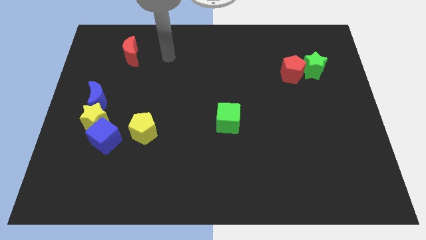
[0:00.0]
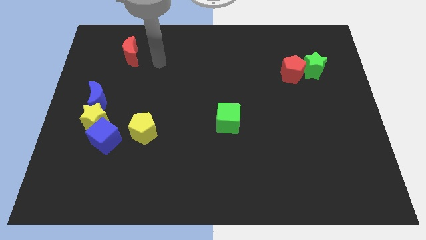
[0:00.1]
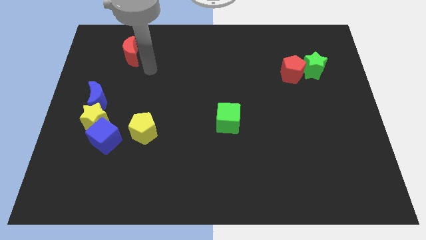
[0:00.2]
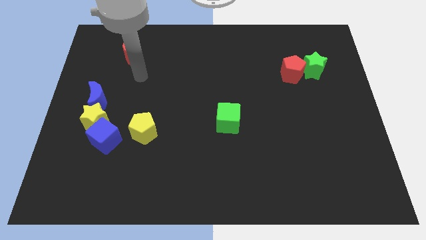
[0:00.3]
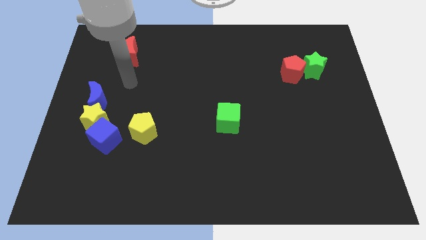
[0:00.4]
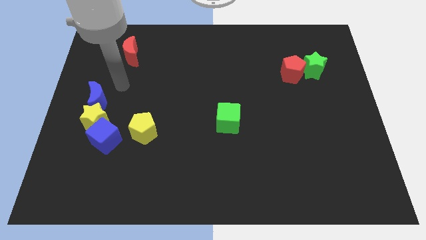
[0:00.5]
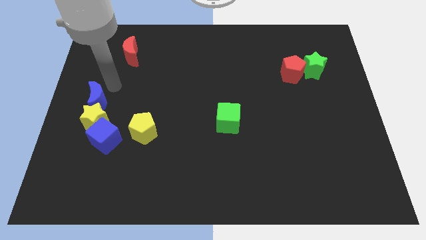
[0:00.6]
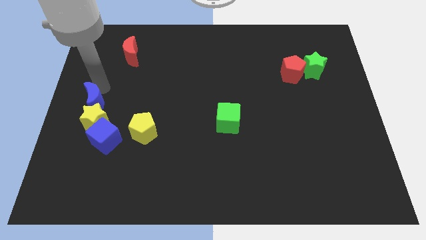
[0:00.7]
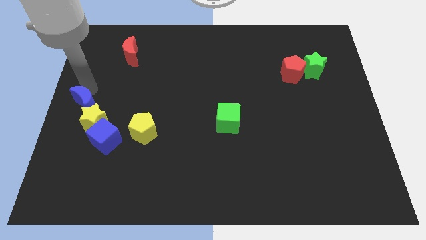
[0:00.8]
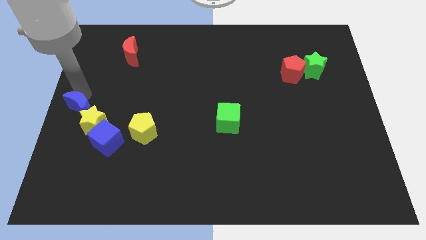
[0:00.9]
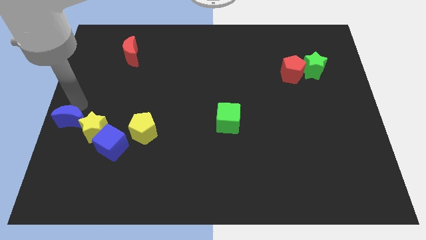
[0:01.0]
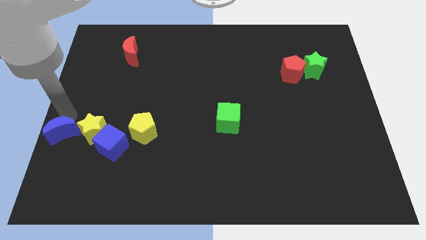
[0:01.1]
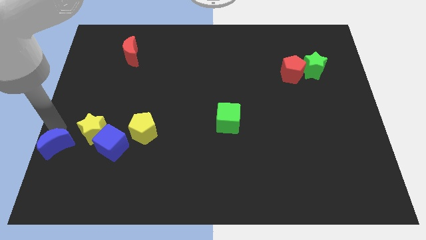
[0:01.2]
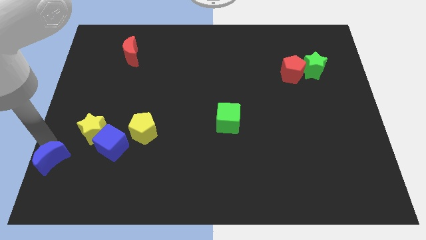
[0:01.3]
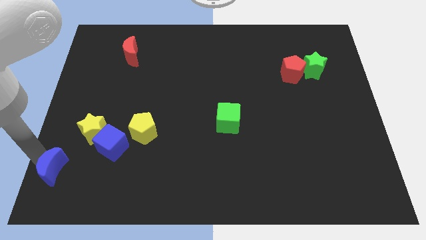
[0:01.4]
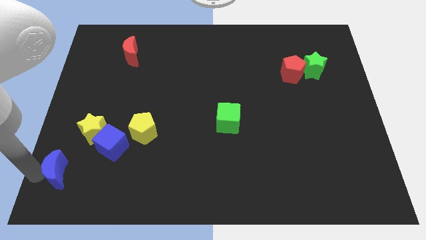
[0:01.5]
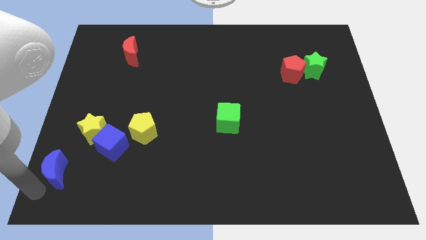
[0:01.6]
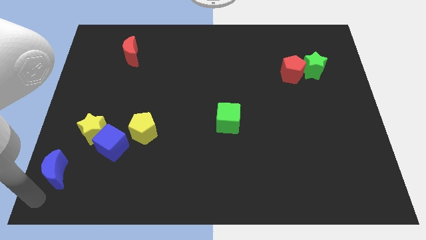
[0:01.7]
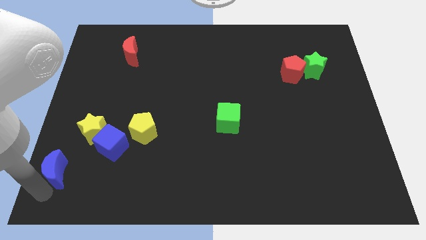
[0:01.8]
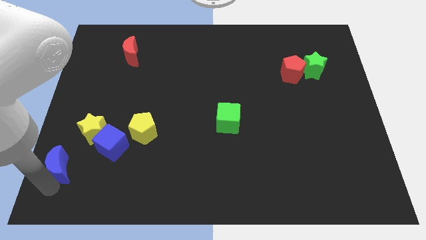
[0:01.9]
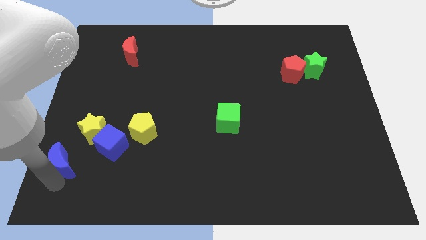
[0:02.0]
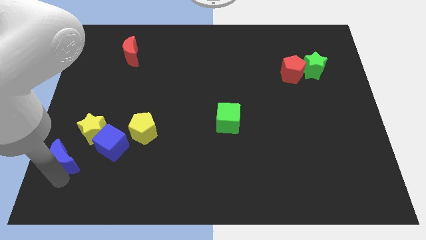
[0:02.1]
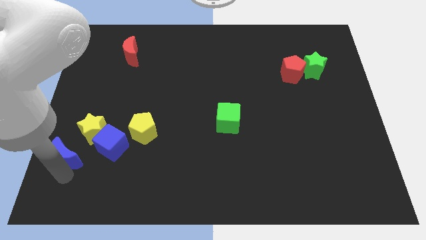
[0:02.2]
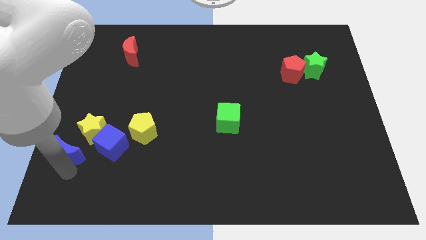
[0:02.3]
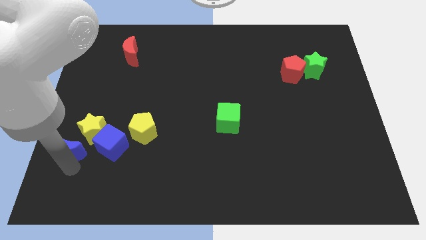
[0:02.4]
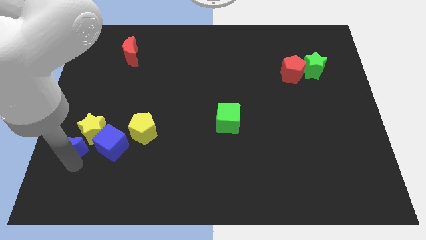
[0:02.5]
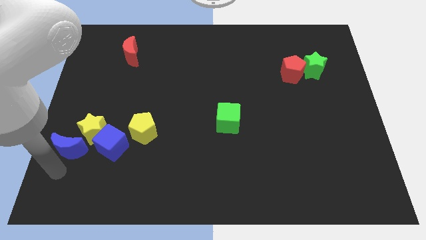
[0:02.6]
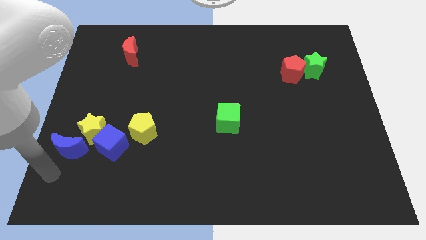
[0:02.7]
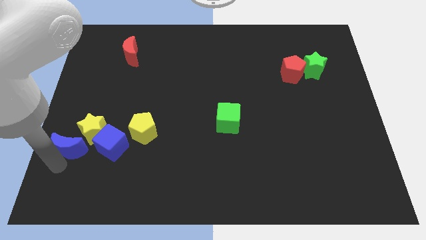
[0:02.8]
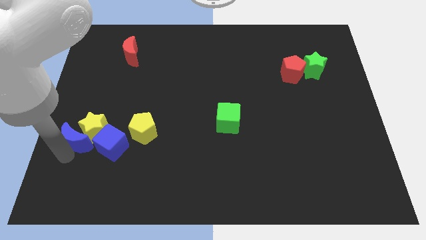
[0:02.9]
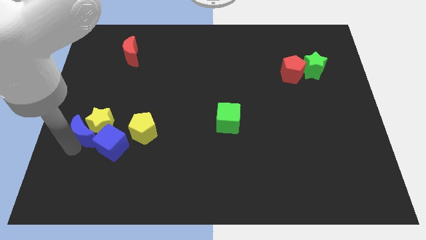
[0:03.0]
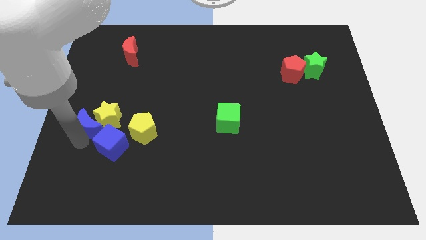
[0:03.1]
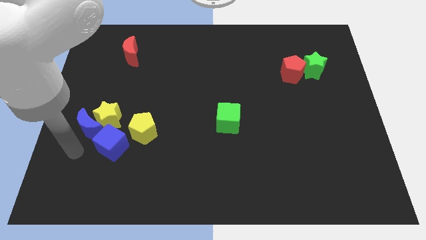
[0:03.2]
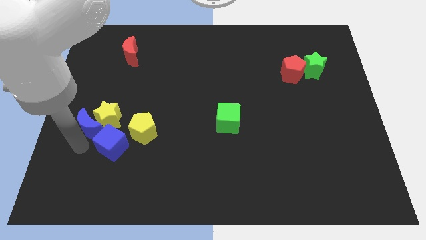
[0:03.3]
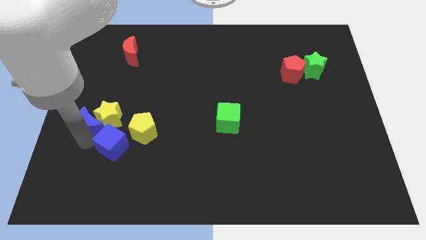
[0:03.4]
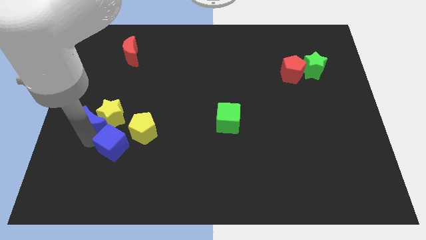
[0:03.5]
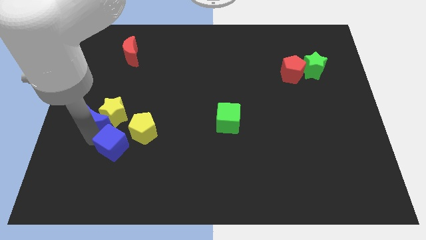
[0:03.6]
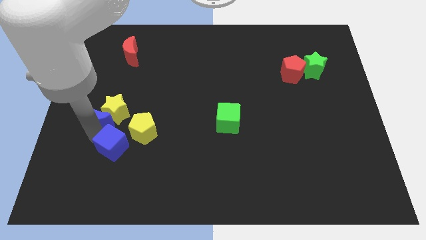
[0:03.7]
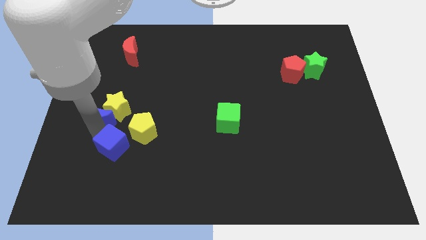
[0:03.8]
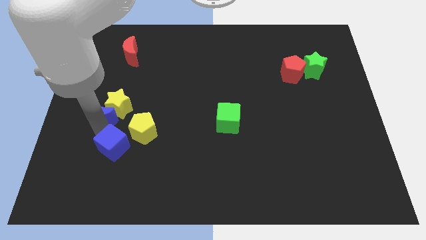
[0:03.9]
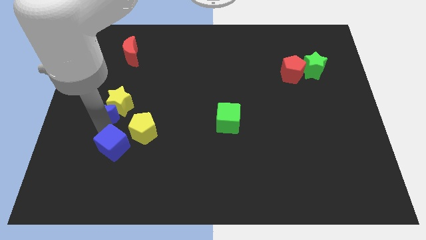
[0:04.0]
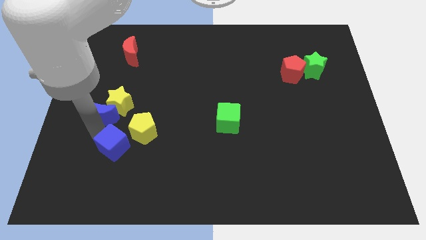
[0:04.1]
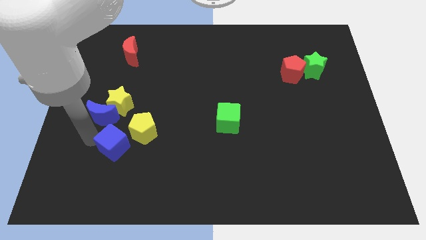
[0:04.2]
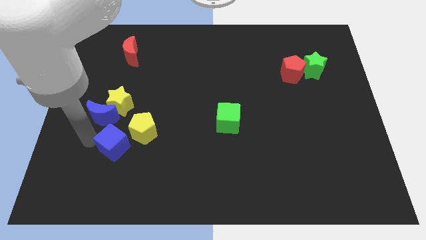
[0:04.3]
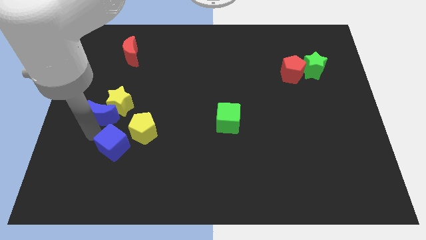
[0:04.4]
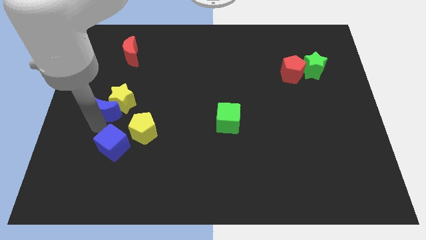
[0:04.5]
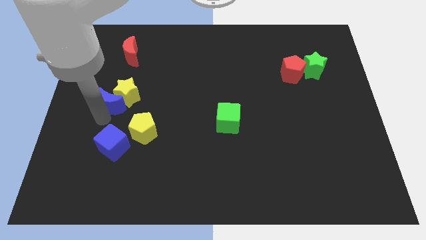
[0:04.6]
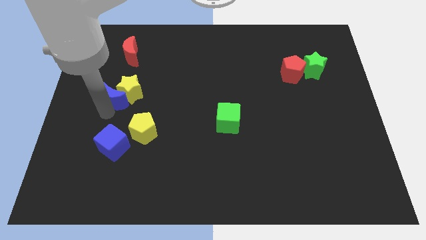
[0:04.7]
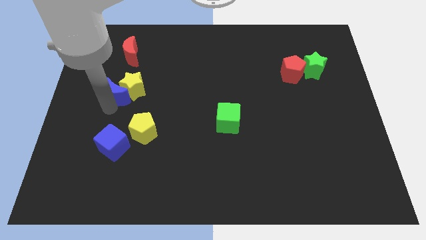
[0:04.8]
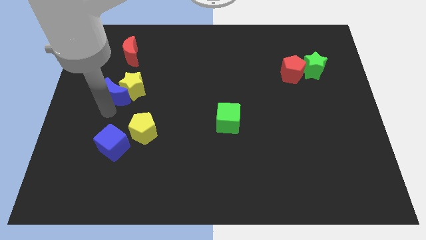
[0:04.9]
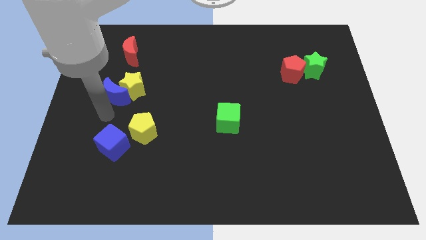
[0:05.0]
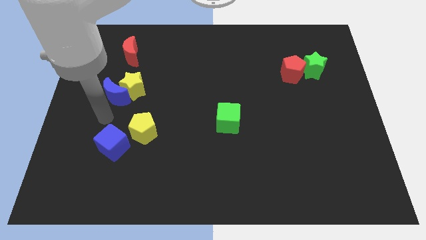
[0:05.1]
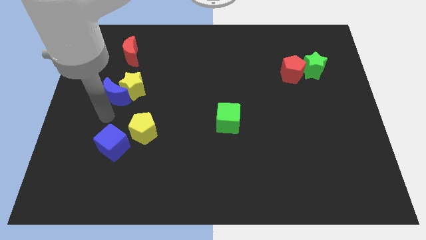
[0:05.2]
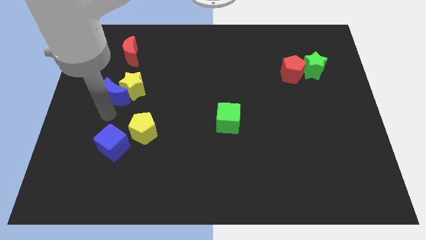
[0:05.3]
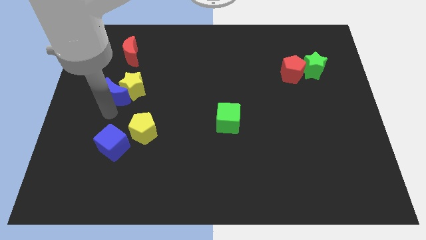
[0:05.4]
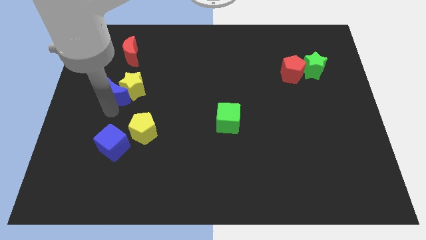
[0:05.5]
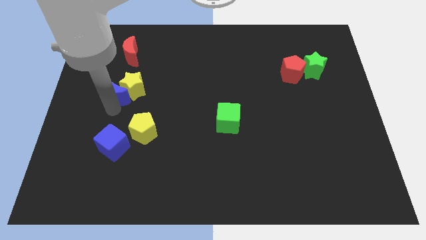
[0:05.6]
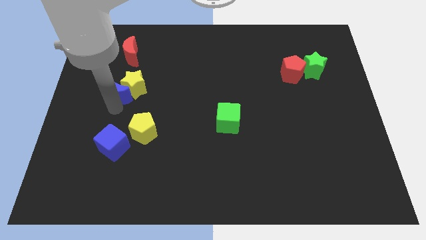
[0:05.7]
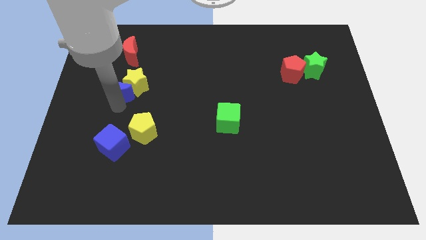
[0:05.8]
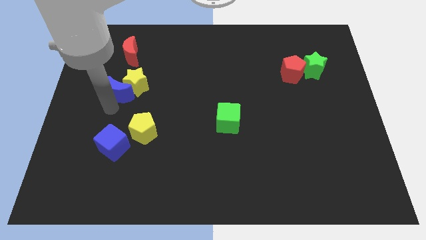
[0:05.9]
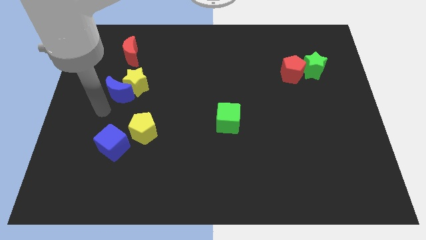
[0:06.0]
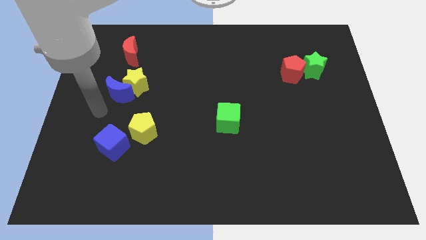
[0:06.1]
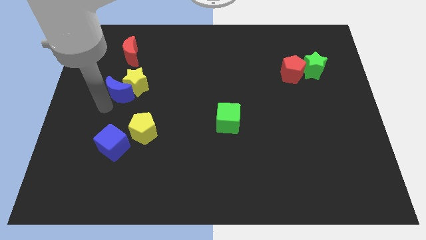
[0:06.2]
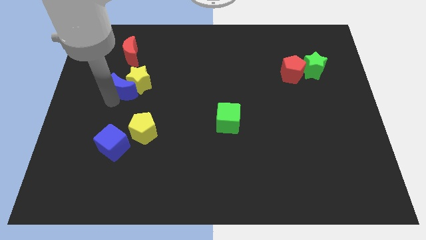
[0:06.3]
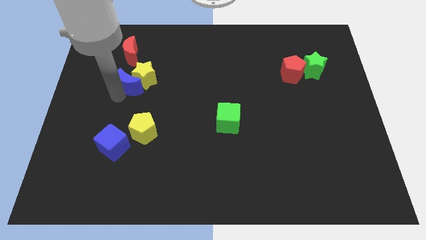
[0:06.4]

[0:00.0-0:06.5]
slide the blue moon somewhat diagonally upwards and right

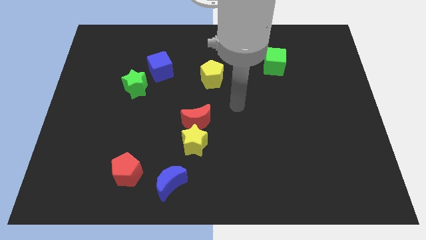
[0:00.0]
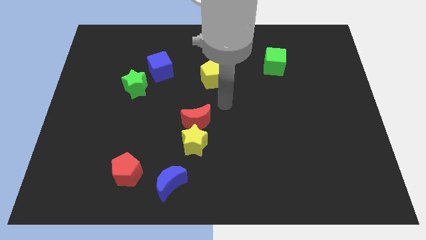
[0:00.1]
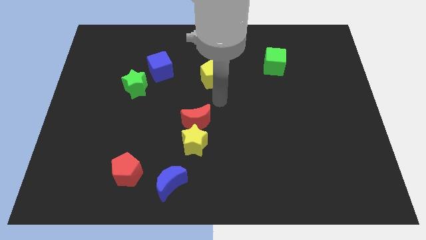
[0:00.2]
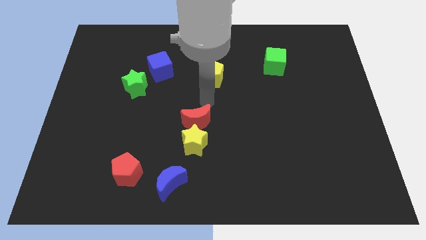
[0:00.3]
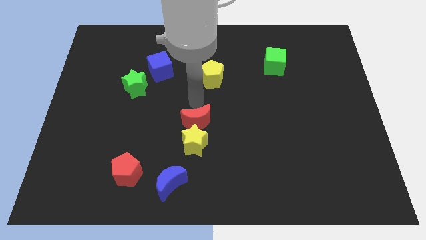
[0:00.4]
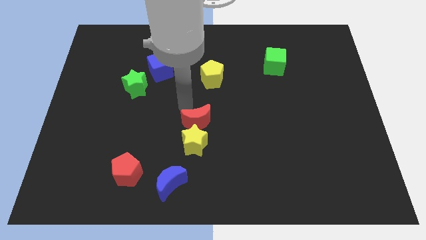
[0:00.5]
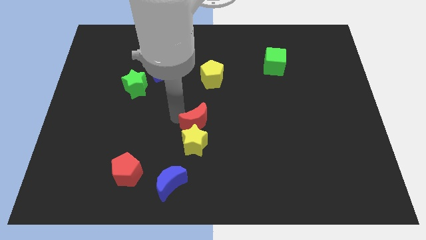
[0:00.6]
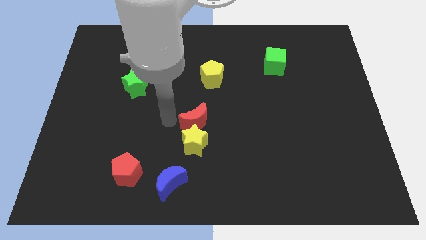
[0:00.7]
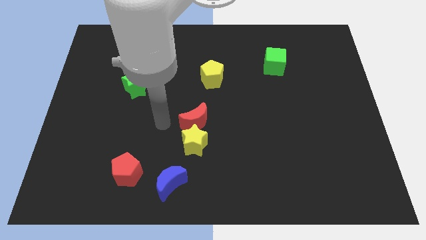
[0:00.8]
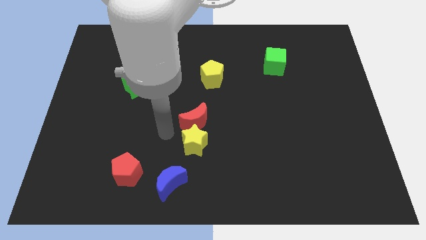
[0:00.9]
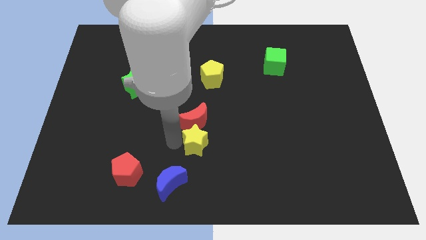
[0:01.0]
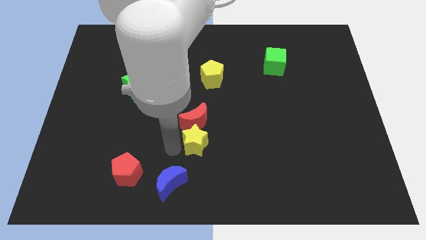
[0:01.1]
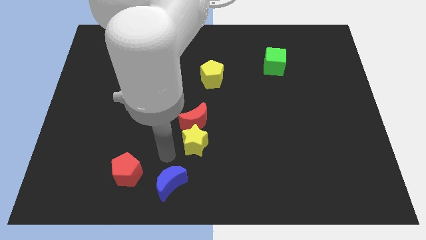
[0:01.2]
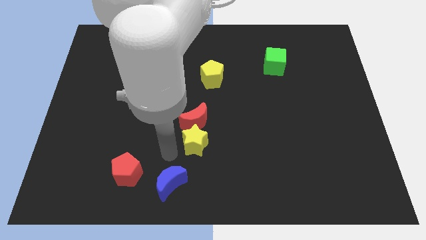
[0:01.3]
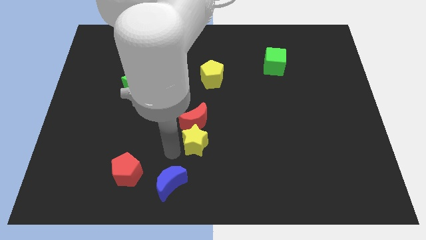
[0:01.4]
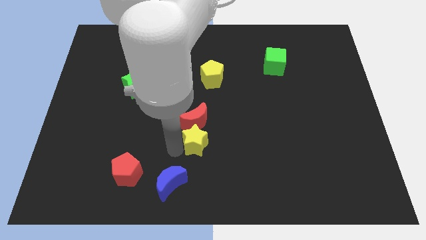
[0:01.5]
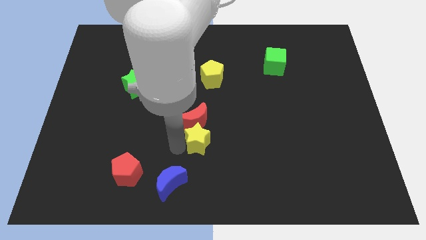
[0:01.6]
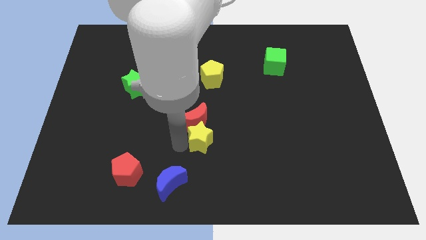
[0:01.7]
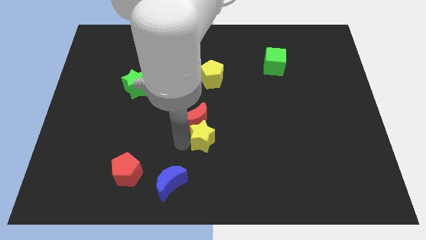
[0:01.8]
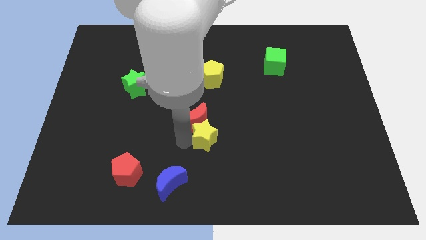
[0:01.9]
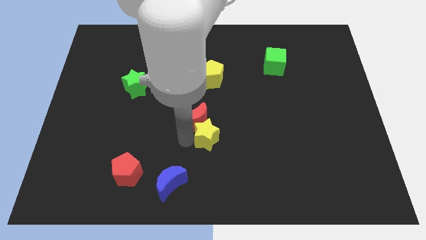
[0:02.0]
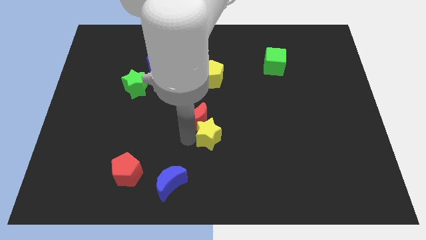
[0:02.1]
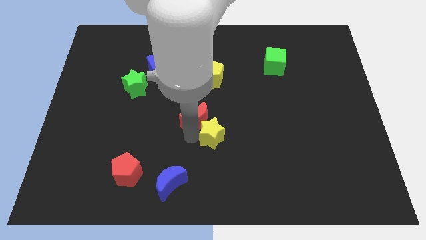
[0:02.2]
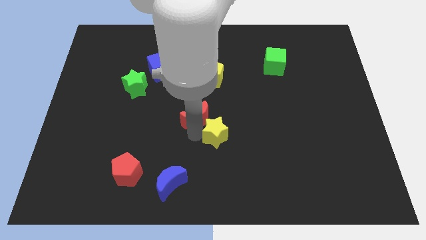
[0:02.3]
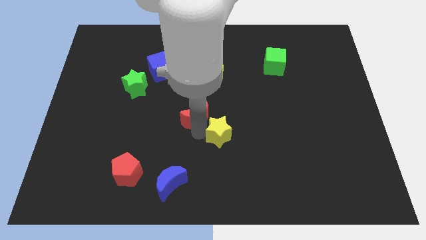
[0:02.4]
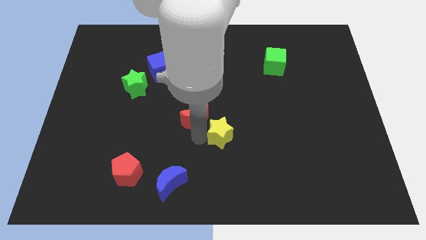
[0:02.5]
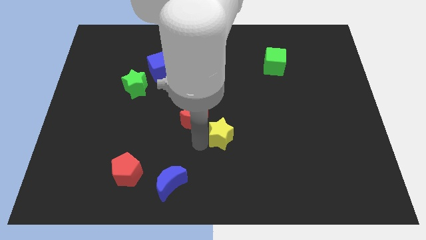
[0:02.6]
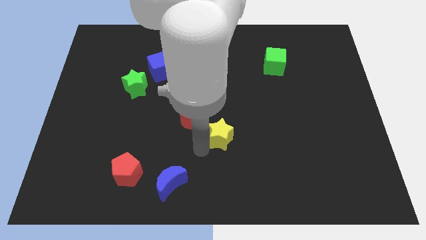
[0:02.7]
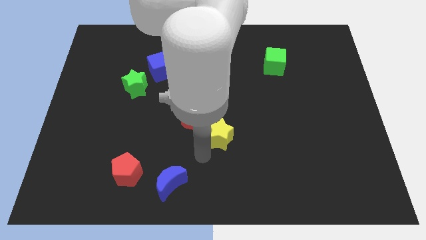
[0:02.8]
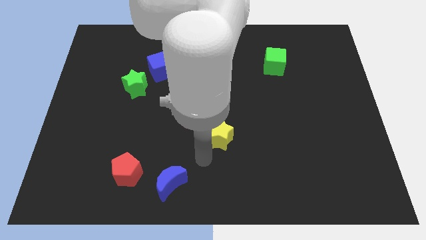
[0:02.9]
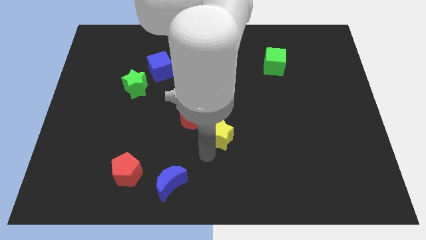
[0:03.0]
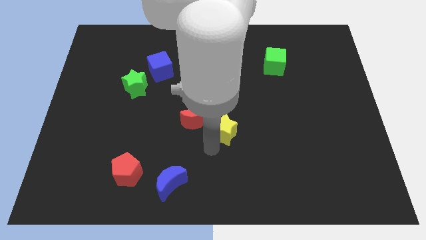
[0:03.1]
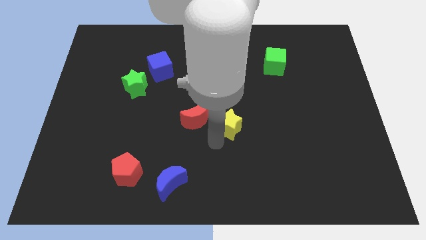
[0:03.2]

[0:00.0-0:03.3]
move the yellow star a little up and then to the right
